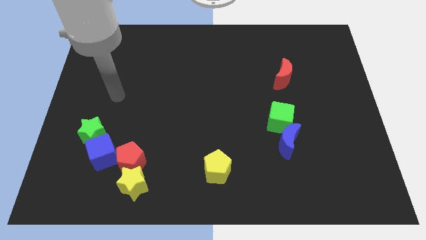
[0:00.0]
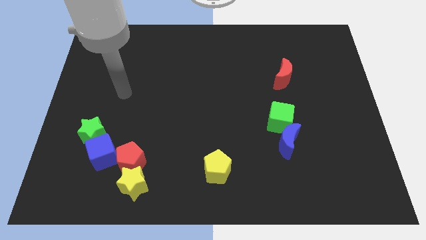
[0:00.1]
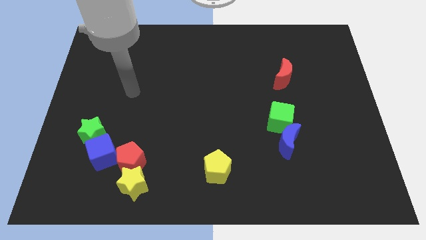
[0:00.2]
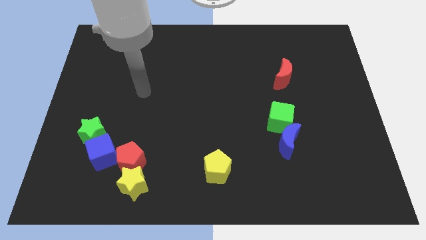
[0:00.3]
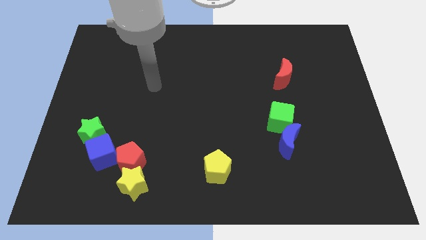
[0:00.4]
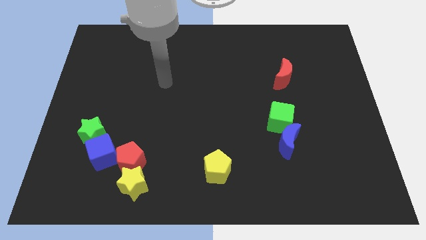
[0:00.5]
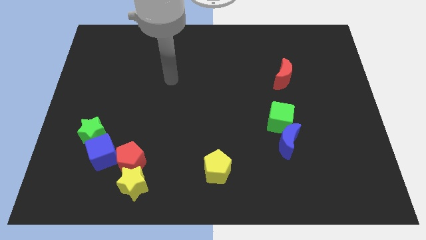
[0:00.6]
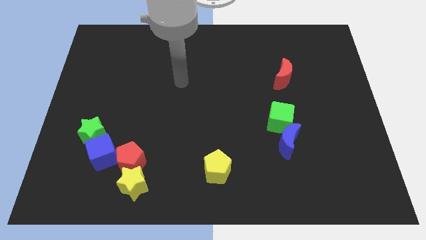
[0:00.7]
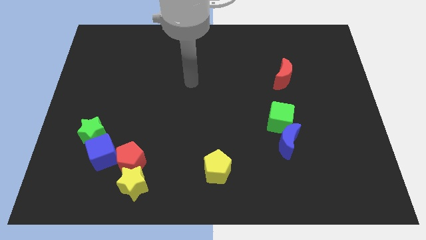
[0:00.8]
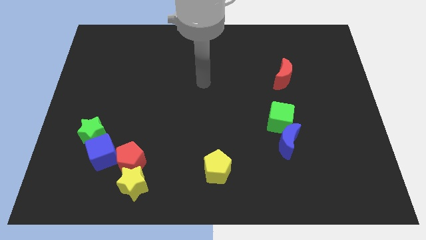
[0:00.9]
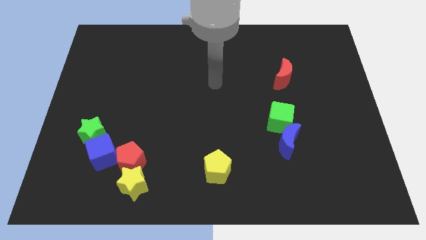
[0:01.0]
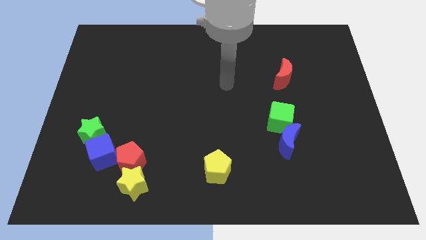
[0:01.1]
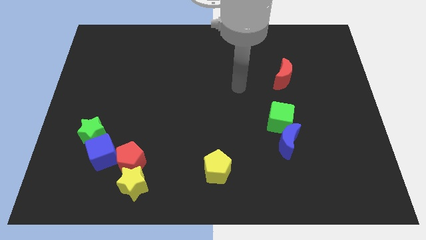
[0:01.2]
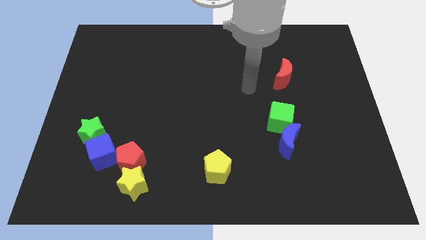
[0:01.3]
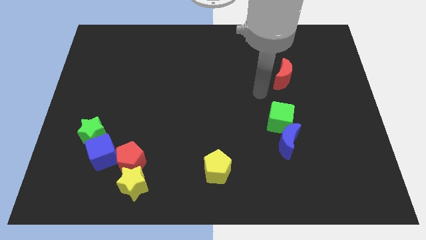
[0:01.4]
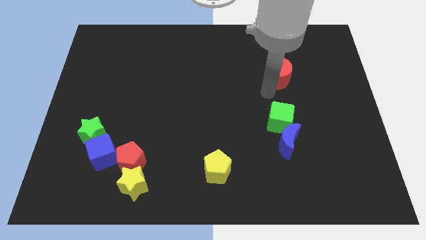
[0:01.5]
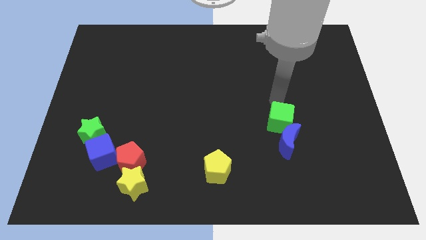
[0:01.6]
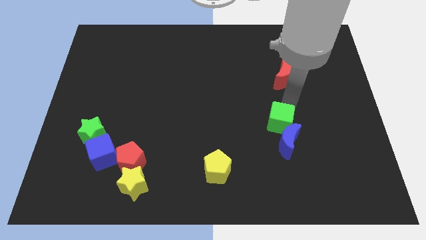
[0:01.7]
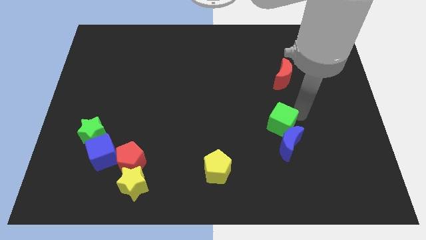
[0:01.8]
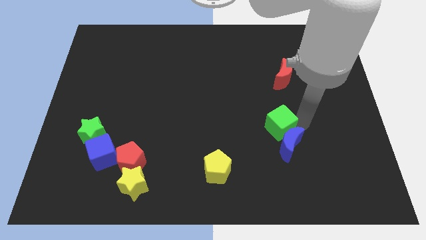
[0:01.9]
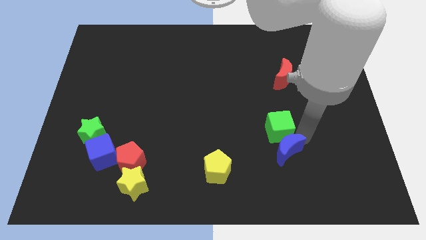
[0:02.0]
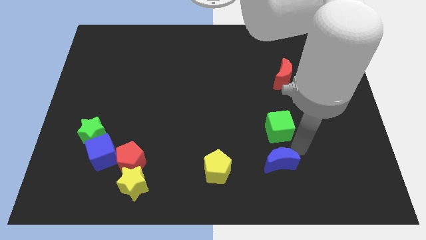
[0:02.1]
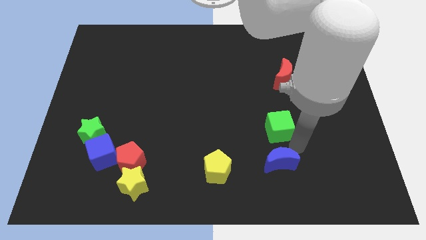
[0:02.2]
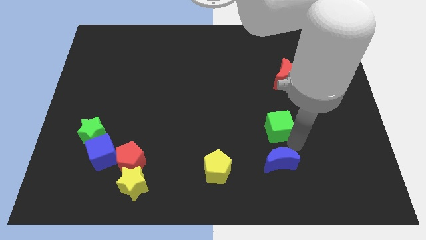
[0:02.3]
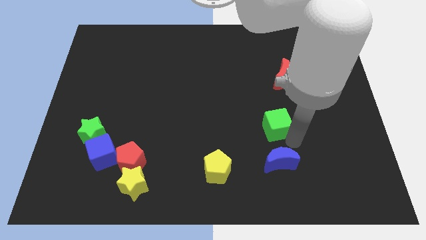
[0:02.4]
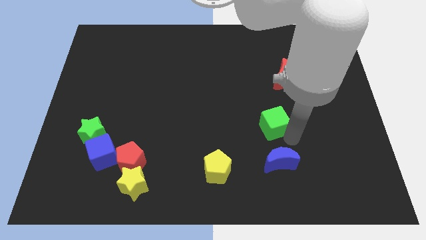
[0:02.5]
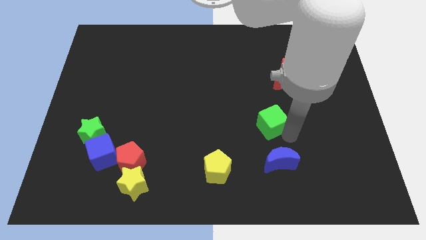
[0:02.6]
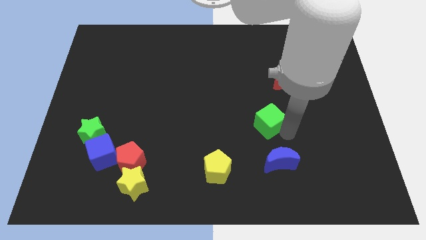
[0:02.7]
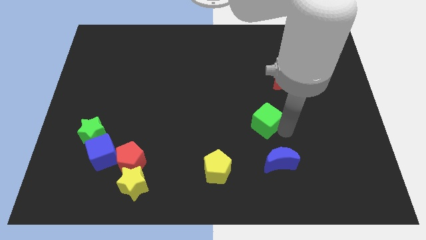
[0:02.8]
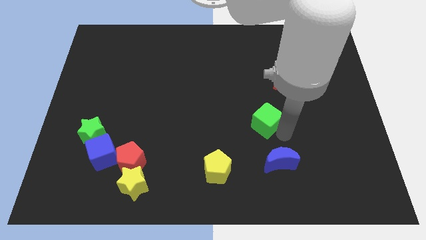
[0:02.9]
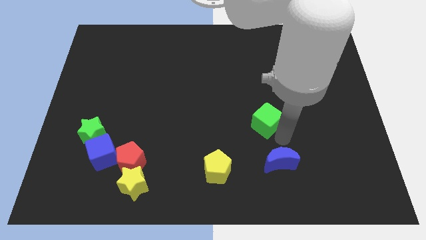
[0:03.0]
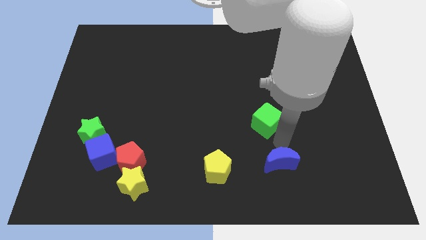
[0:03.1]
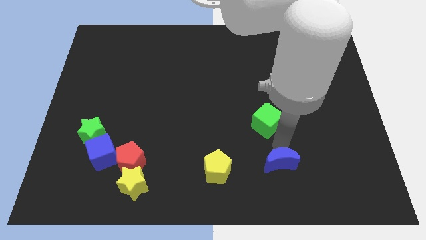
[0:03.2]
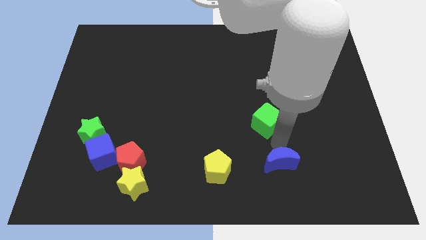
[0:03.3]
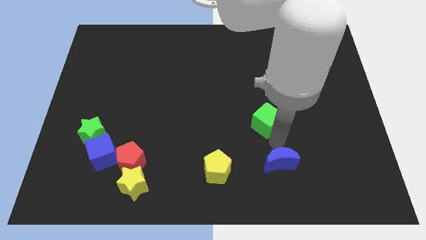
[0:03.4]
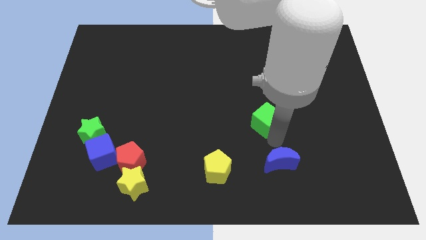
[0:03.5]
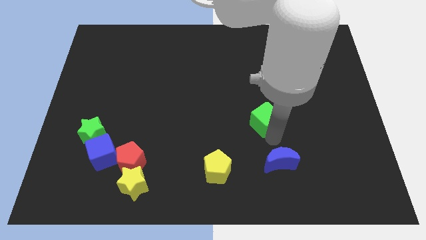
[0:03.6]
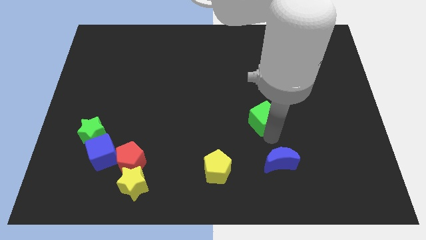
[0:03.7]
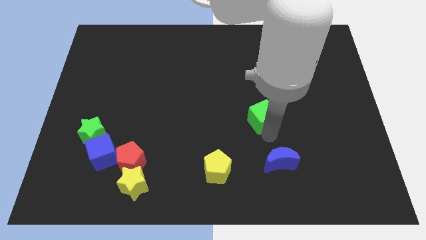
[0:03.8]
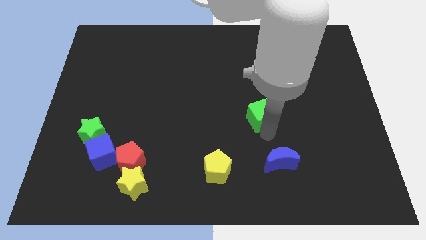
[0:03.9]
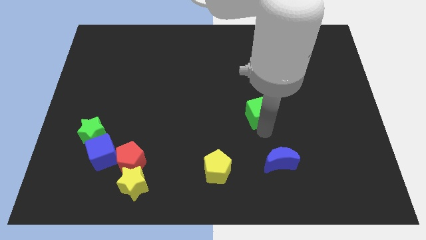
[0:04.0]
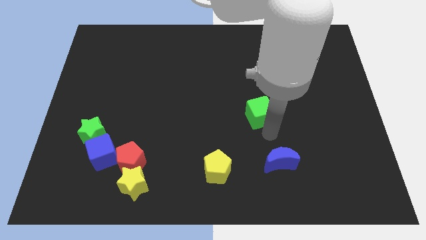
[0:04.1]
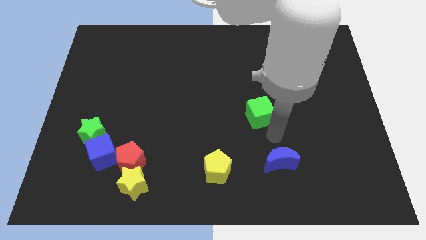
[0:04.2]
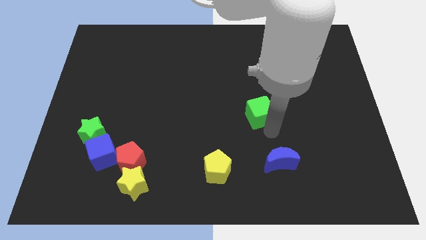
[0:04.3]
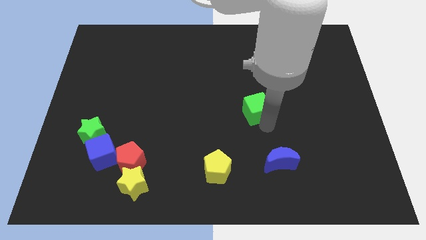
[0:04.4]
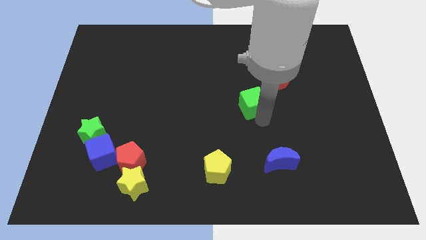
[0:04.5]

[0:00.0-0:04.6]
push the green cube upwards and to the left diagonally a bit

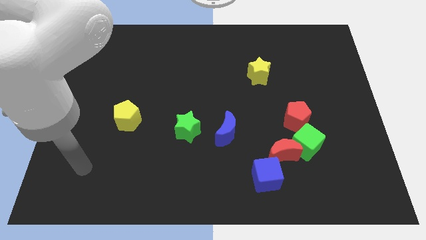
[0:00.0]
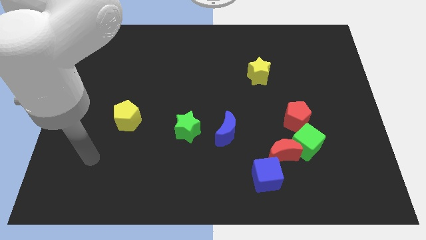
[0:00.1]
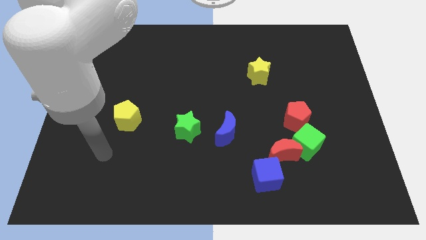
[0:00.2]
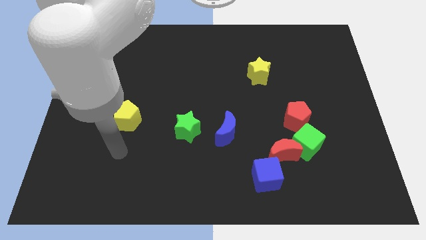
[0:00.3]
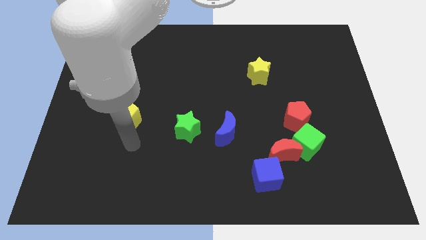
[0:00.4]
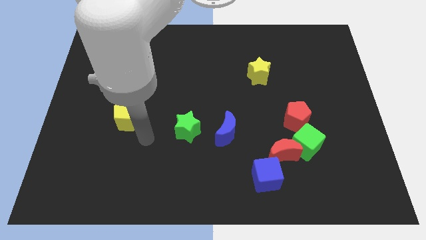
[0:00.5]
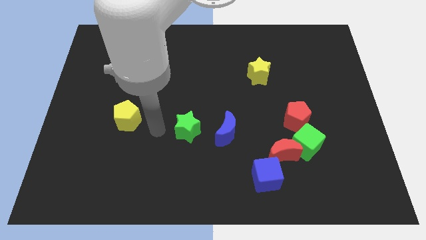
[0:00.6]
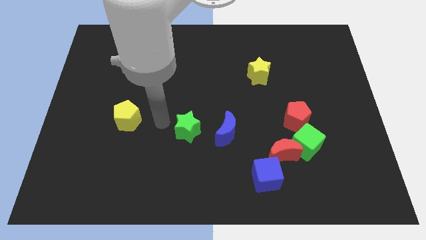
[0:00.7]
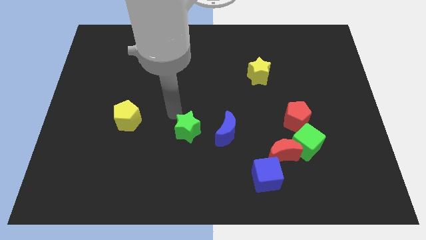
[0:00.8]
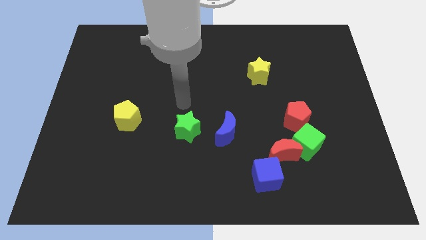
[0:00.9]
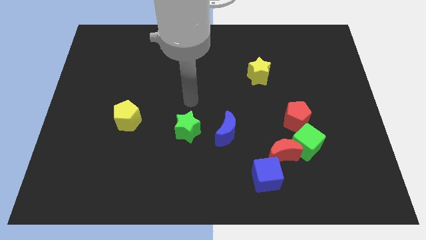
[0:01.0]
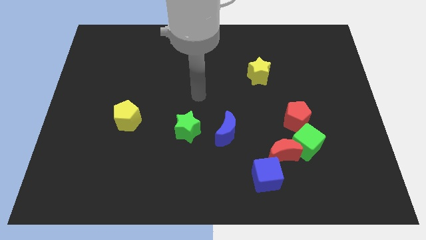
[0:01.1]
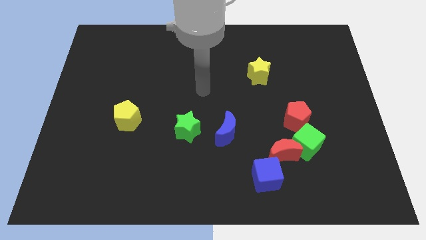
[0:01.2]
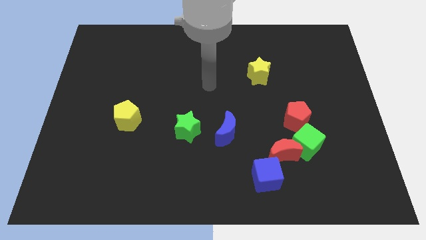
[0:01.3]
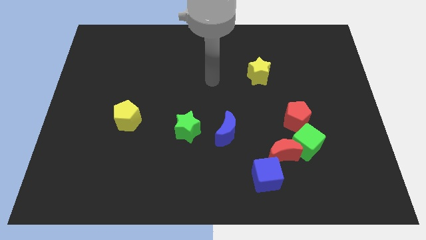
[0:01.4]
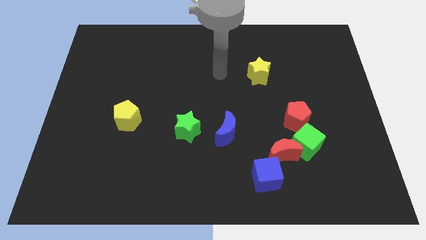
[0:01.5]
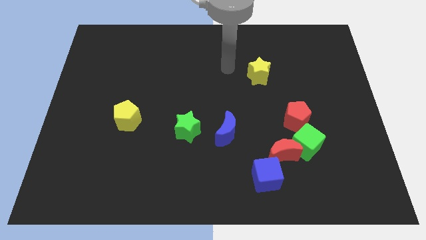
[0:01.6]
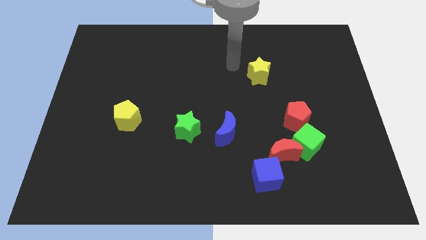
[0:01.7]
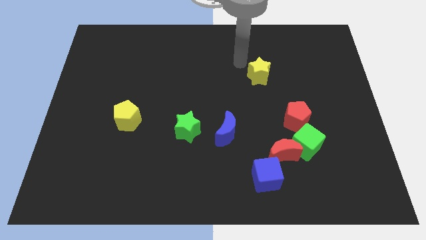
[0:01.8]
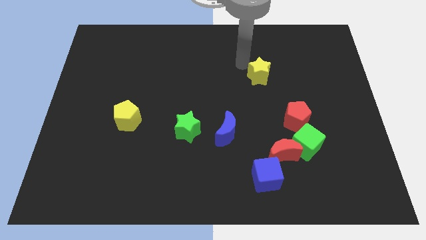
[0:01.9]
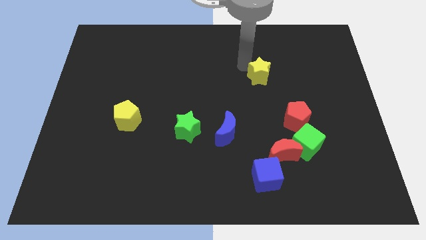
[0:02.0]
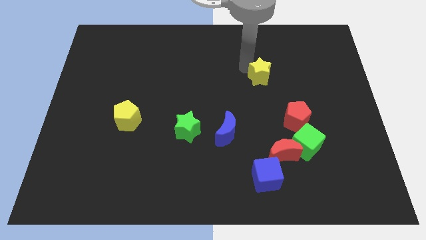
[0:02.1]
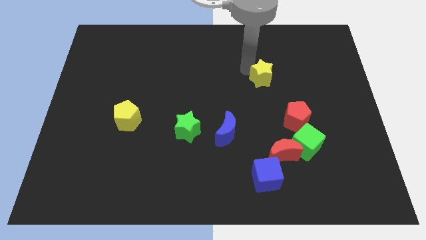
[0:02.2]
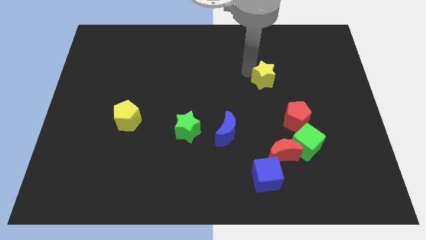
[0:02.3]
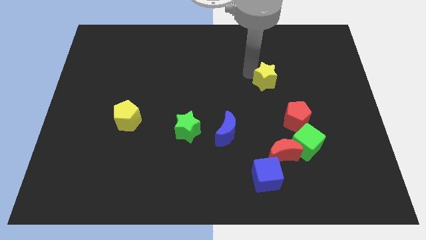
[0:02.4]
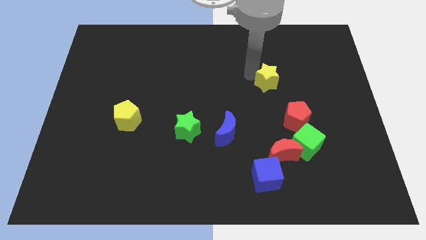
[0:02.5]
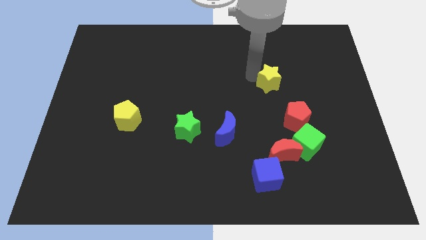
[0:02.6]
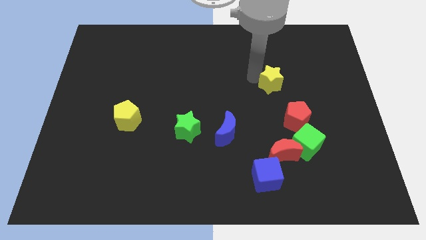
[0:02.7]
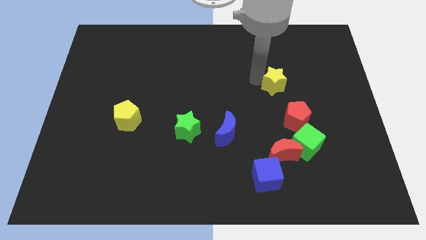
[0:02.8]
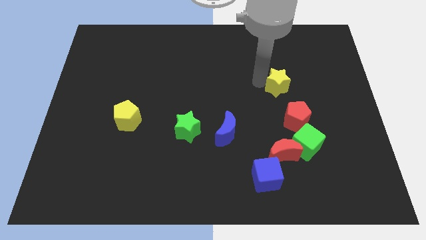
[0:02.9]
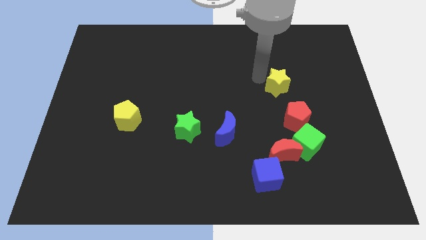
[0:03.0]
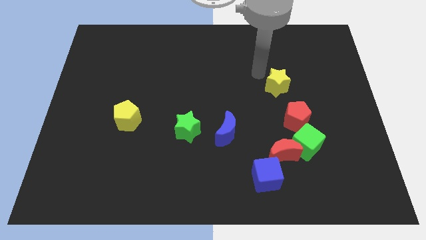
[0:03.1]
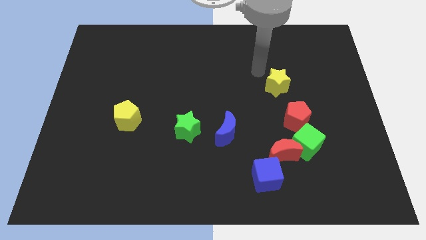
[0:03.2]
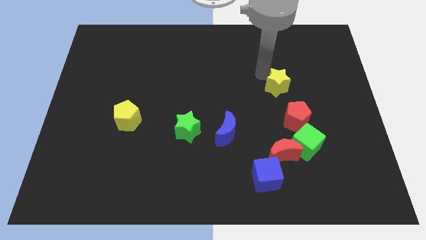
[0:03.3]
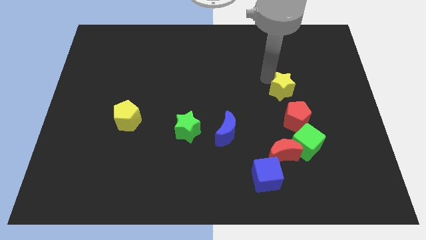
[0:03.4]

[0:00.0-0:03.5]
slide the yellow star a little bit down and to the right diagonally
